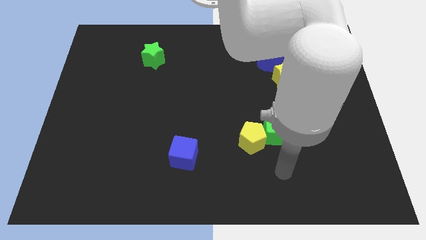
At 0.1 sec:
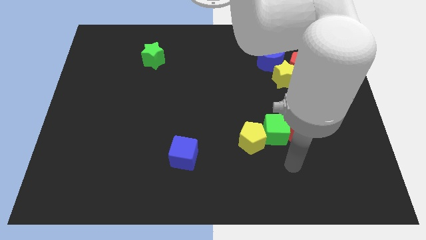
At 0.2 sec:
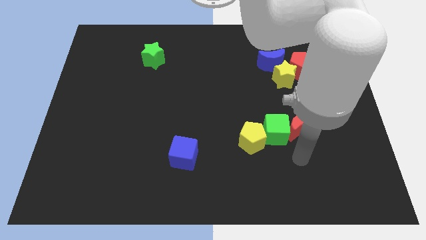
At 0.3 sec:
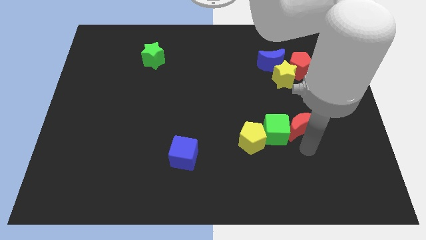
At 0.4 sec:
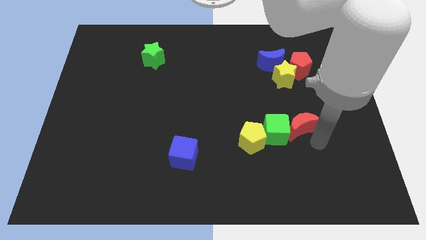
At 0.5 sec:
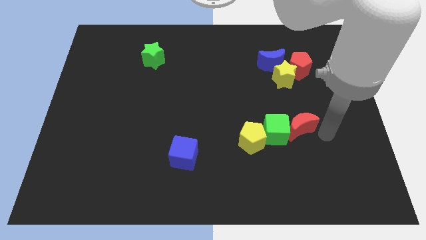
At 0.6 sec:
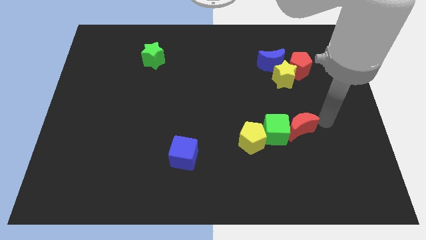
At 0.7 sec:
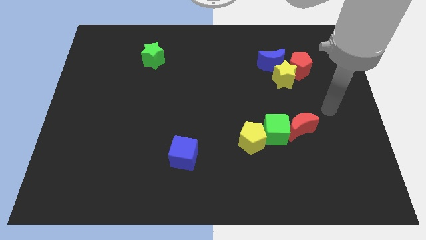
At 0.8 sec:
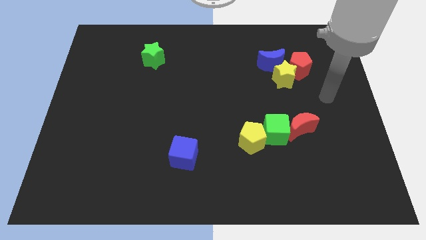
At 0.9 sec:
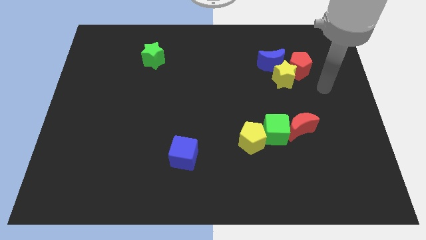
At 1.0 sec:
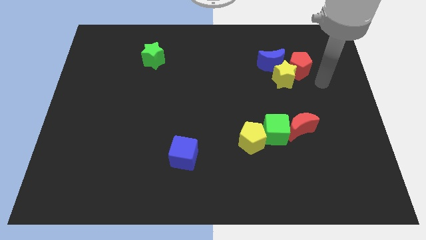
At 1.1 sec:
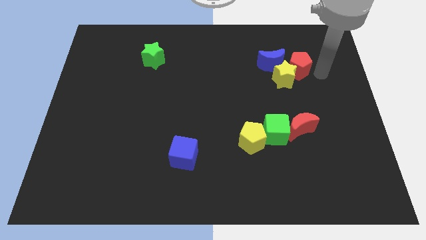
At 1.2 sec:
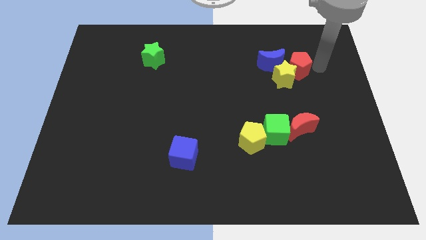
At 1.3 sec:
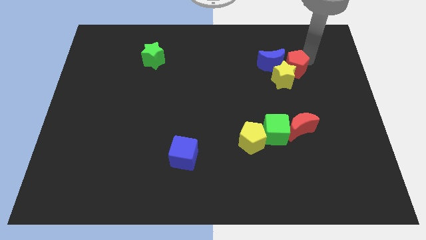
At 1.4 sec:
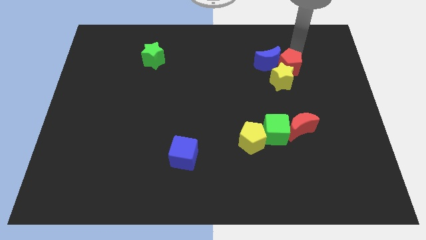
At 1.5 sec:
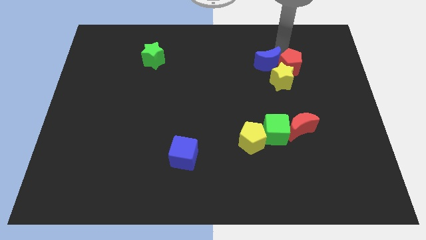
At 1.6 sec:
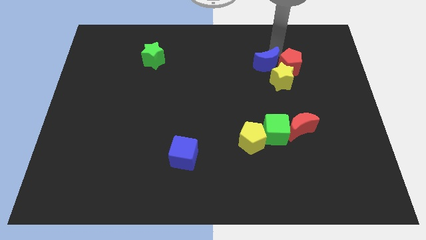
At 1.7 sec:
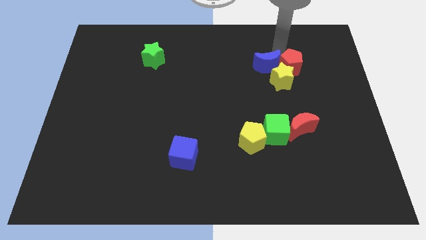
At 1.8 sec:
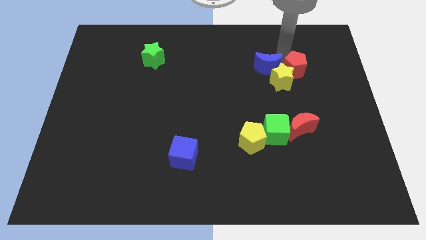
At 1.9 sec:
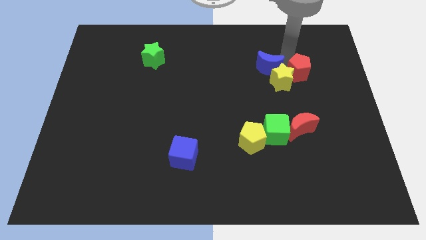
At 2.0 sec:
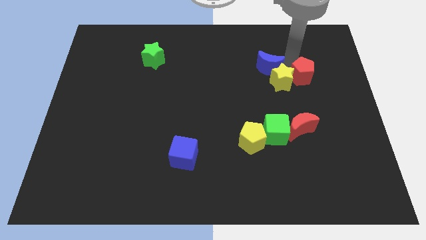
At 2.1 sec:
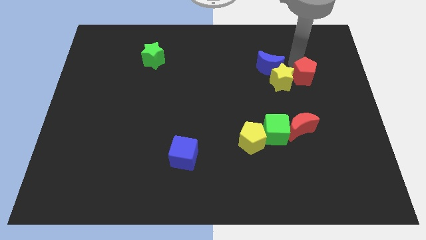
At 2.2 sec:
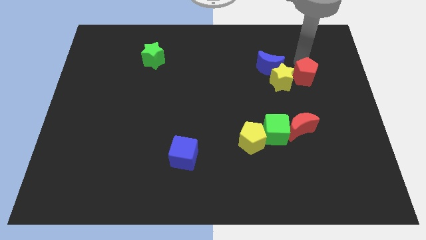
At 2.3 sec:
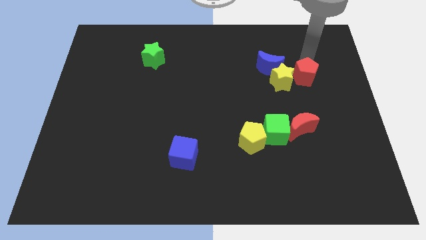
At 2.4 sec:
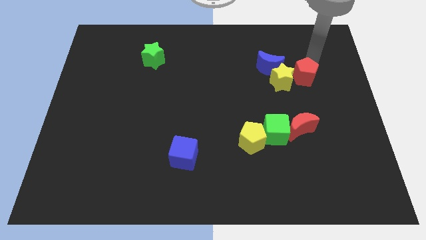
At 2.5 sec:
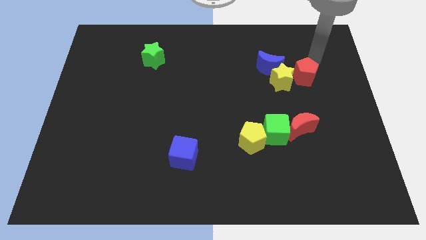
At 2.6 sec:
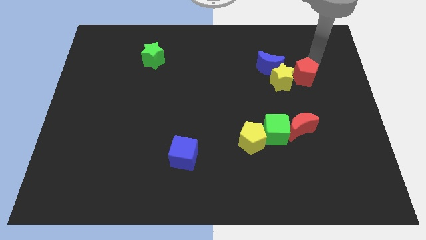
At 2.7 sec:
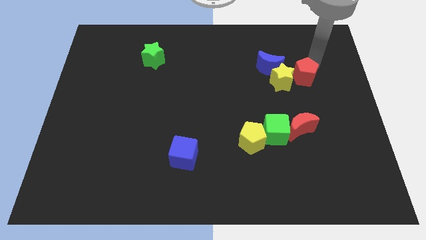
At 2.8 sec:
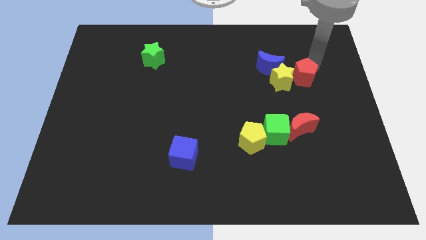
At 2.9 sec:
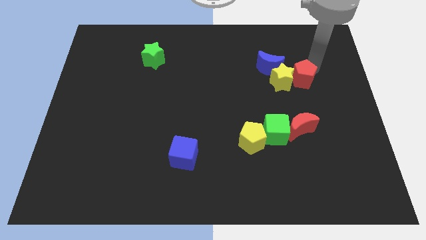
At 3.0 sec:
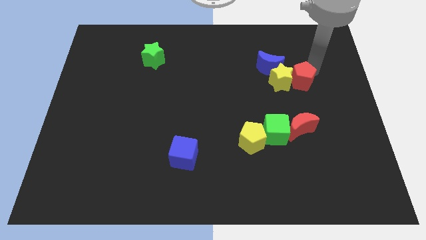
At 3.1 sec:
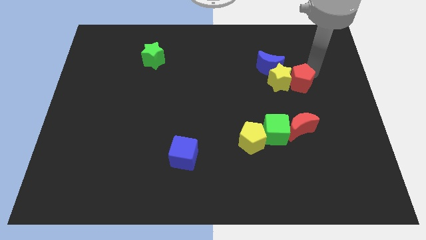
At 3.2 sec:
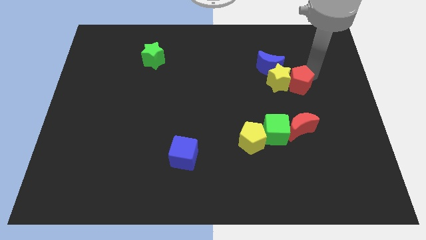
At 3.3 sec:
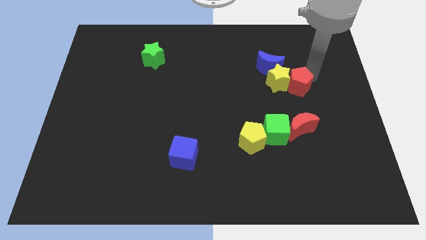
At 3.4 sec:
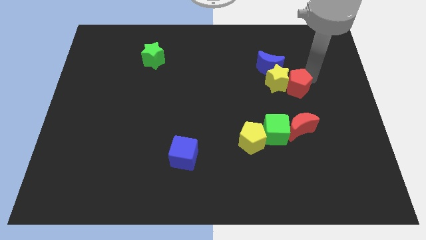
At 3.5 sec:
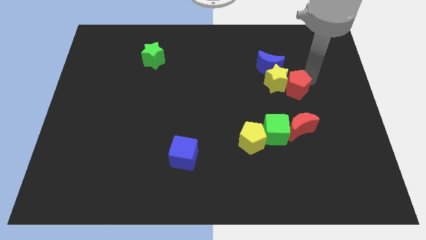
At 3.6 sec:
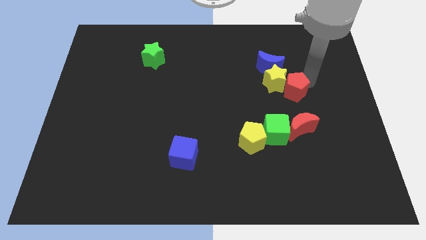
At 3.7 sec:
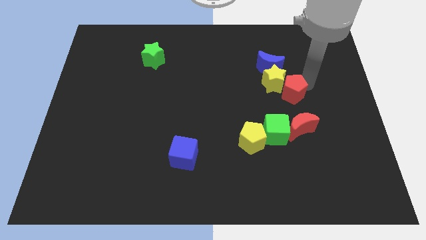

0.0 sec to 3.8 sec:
move the red pentagon downwards and left a little

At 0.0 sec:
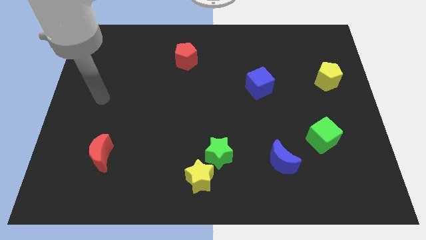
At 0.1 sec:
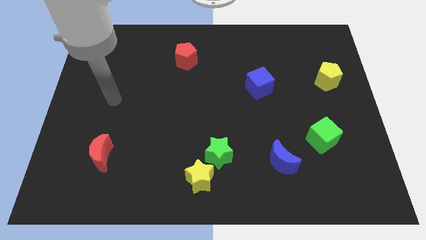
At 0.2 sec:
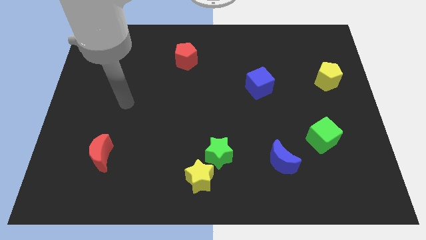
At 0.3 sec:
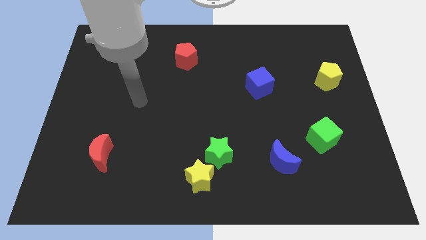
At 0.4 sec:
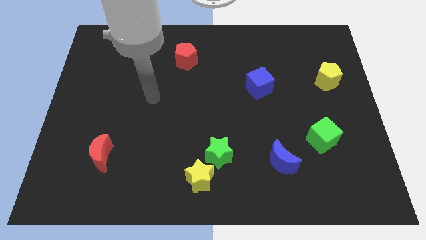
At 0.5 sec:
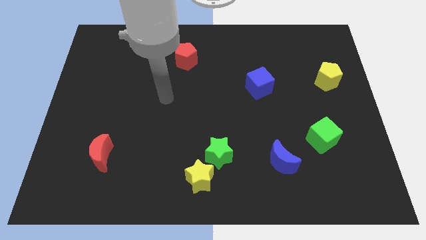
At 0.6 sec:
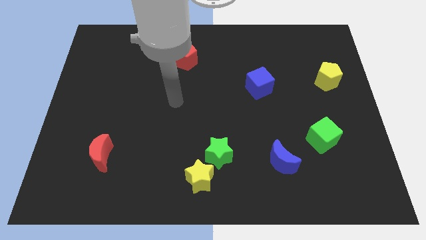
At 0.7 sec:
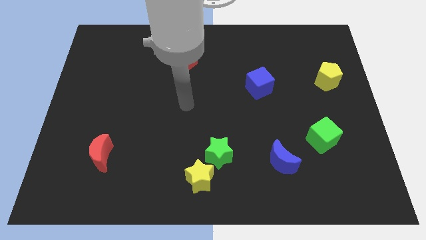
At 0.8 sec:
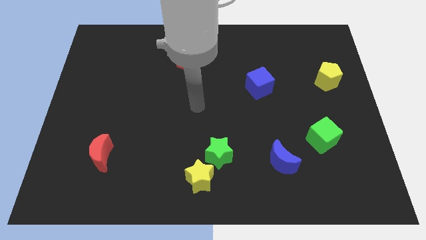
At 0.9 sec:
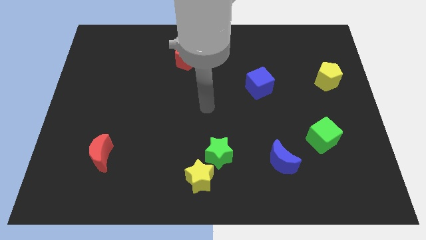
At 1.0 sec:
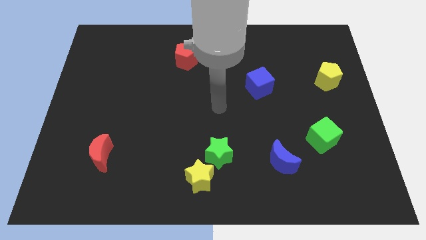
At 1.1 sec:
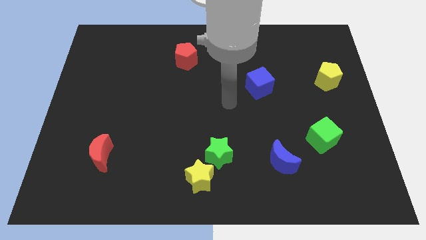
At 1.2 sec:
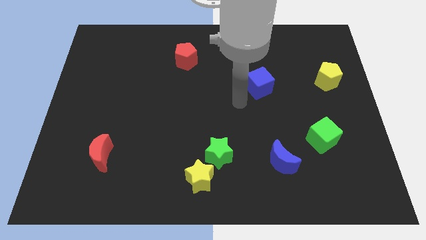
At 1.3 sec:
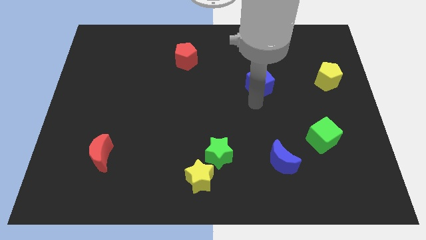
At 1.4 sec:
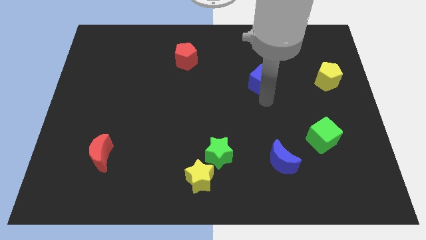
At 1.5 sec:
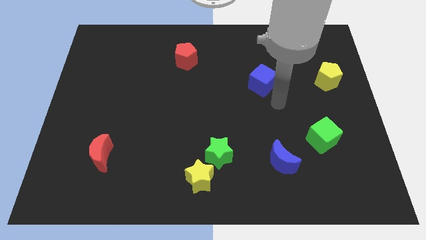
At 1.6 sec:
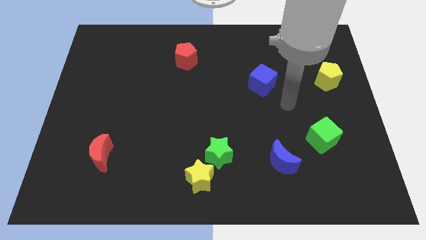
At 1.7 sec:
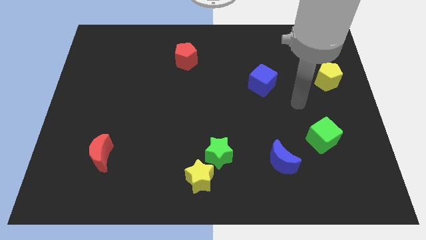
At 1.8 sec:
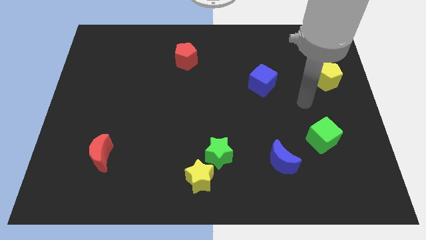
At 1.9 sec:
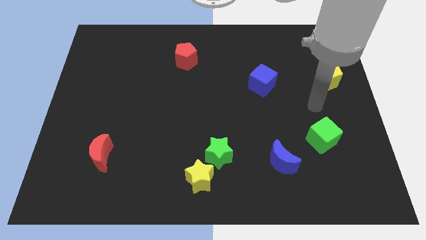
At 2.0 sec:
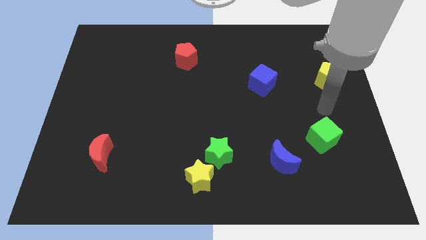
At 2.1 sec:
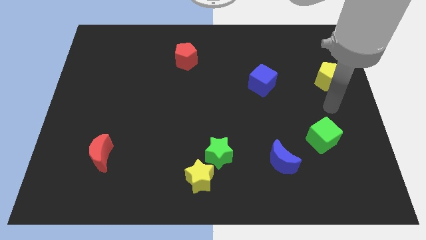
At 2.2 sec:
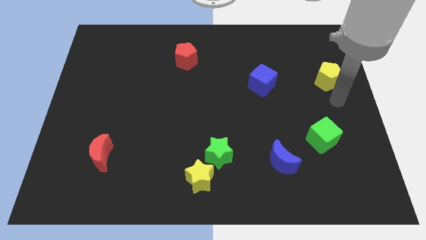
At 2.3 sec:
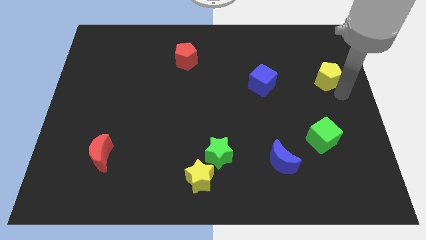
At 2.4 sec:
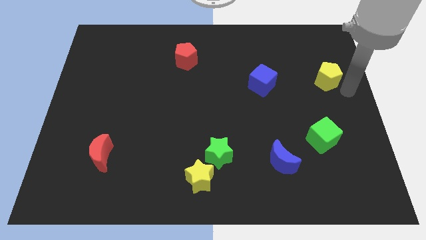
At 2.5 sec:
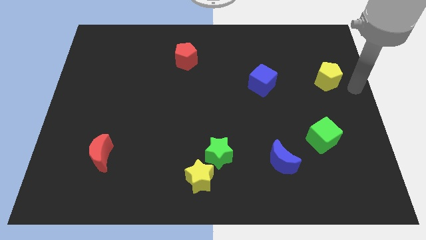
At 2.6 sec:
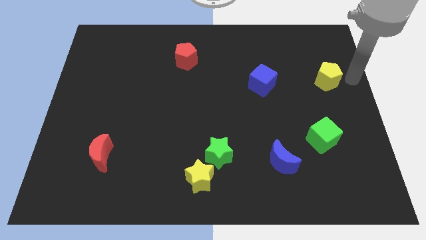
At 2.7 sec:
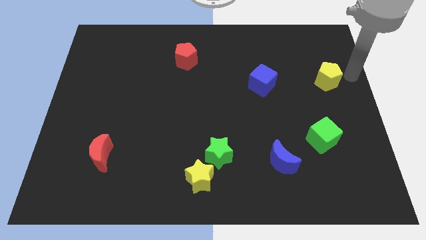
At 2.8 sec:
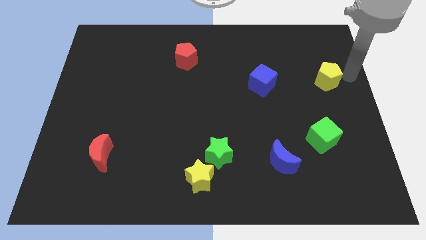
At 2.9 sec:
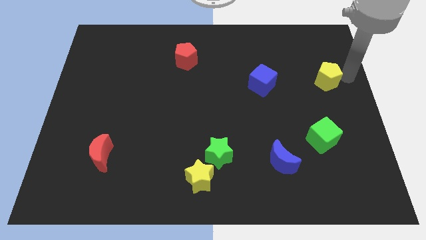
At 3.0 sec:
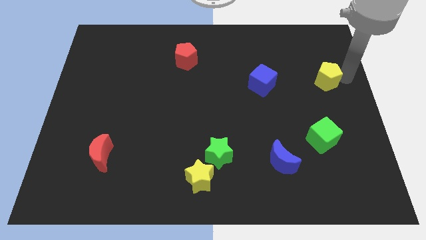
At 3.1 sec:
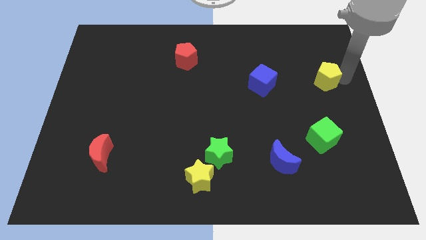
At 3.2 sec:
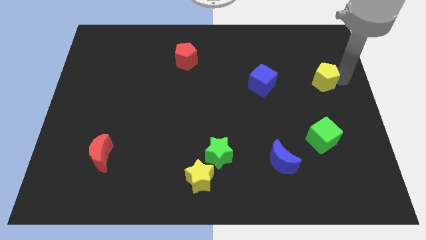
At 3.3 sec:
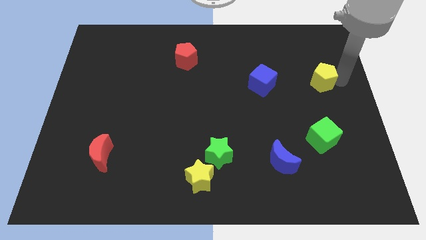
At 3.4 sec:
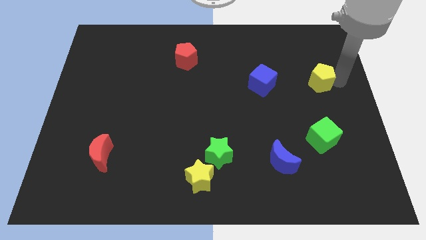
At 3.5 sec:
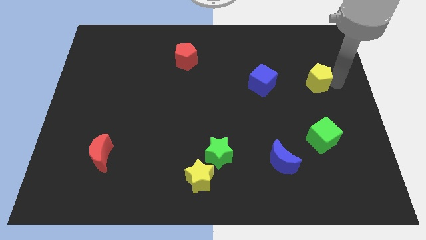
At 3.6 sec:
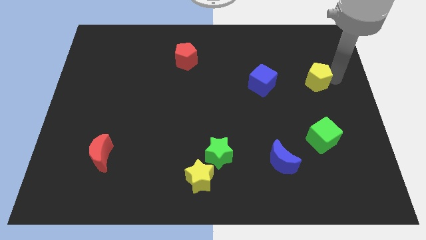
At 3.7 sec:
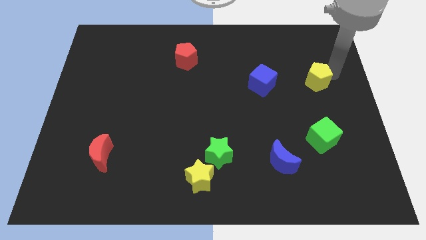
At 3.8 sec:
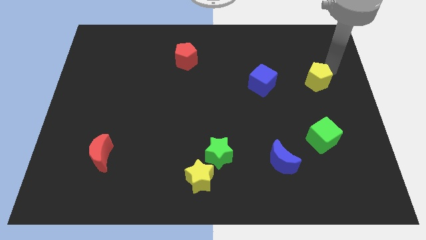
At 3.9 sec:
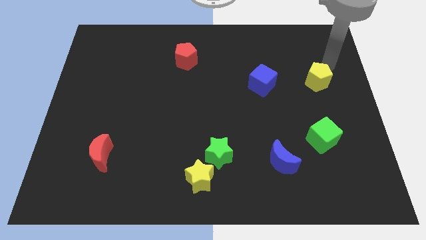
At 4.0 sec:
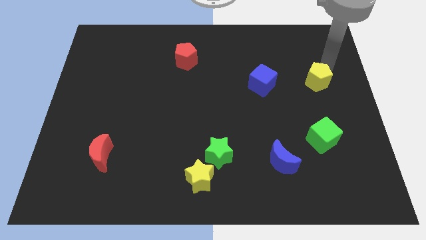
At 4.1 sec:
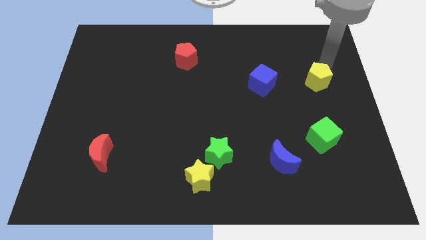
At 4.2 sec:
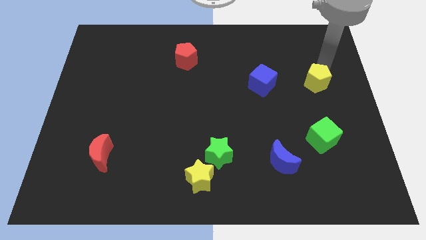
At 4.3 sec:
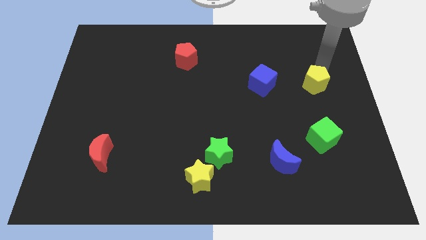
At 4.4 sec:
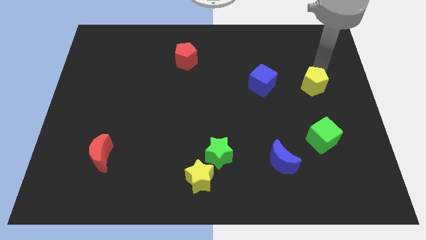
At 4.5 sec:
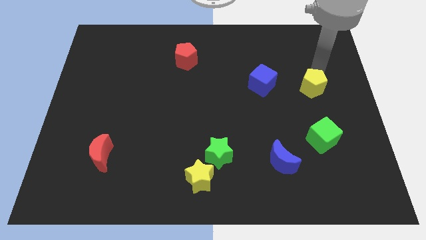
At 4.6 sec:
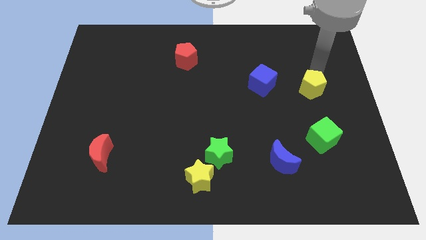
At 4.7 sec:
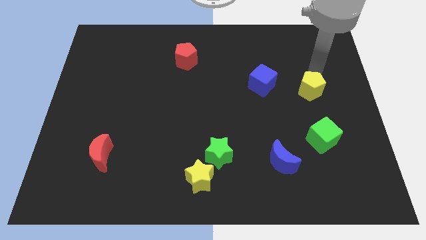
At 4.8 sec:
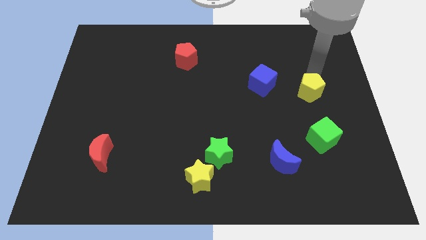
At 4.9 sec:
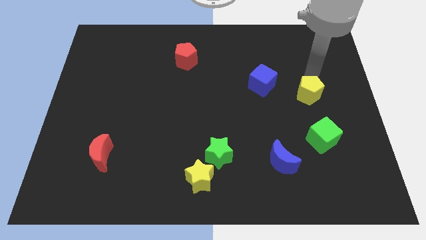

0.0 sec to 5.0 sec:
slide the yellow pentagon downwards and left slightly
